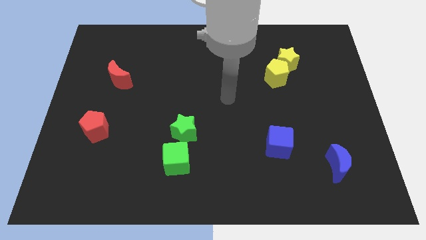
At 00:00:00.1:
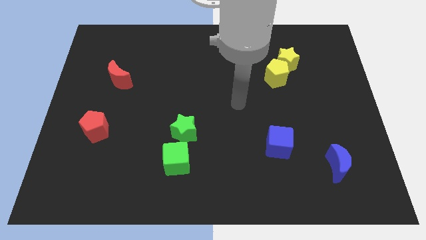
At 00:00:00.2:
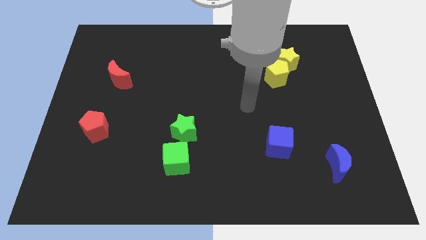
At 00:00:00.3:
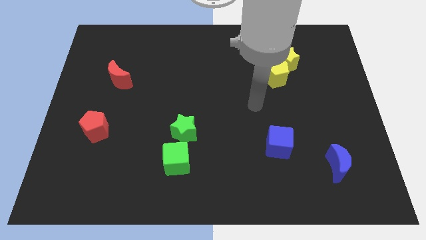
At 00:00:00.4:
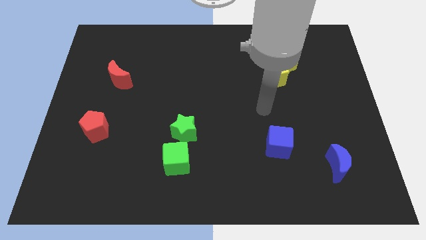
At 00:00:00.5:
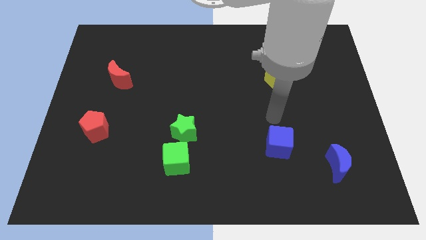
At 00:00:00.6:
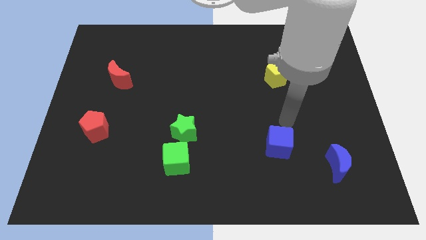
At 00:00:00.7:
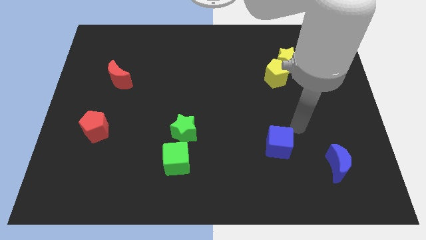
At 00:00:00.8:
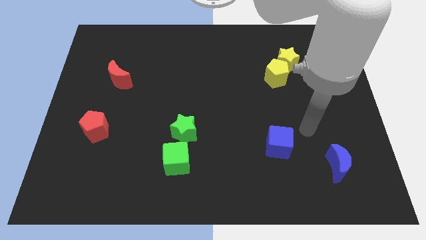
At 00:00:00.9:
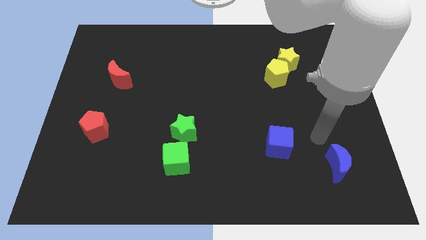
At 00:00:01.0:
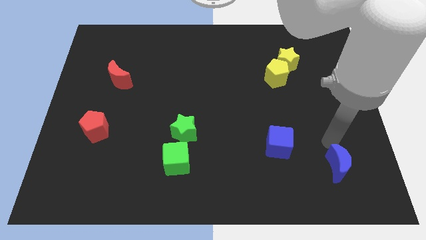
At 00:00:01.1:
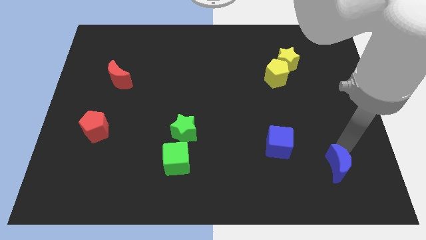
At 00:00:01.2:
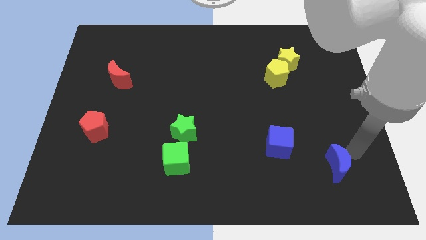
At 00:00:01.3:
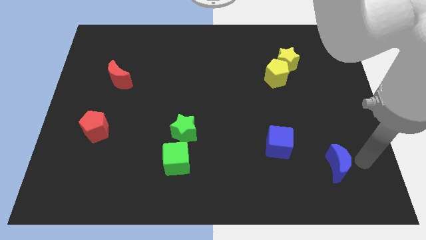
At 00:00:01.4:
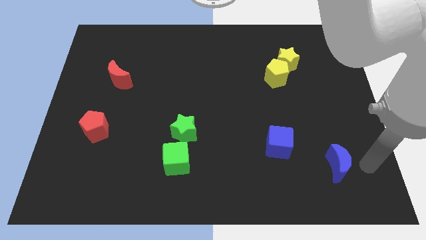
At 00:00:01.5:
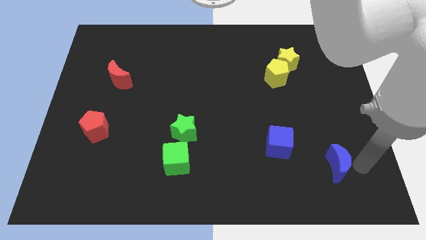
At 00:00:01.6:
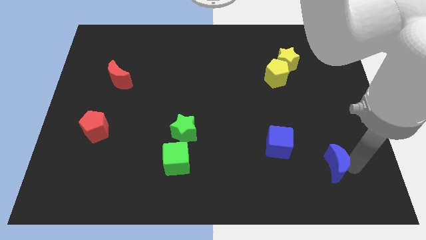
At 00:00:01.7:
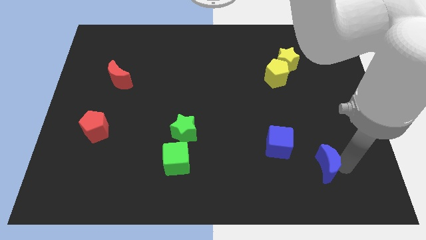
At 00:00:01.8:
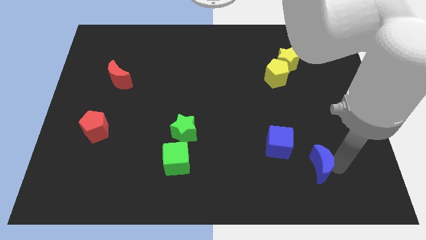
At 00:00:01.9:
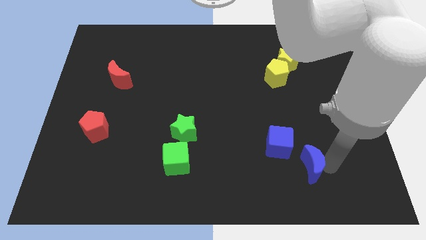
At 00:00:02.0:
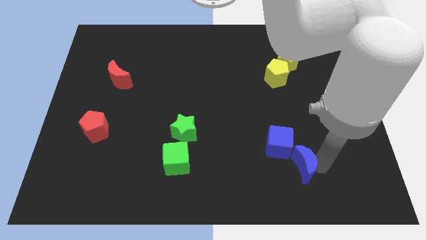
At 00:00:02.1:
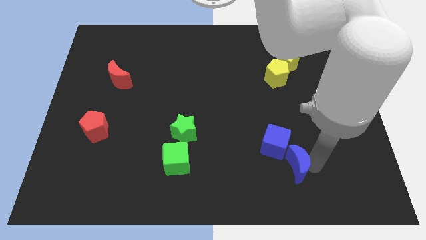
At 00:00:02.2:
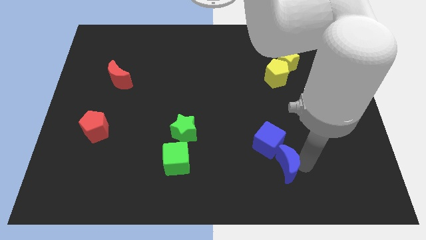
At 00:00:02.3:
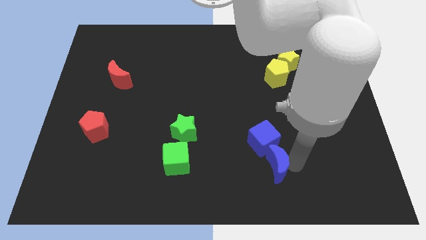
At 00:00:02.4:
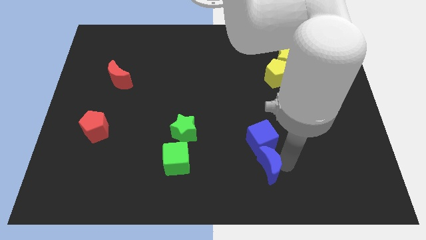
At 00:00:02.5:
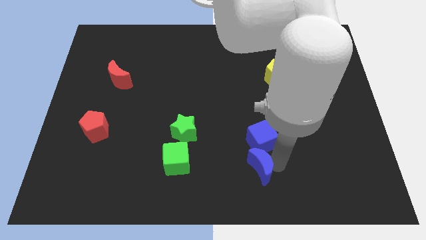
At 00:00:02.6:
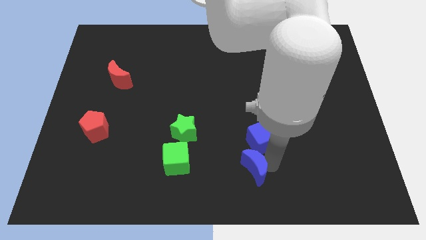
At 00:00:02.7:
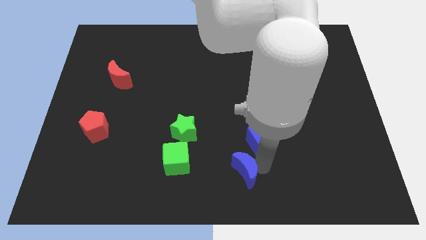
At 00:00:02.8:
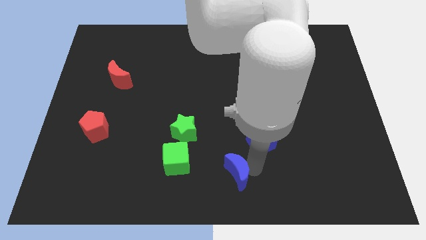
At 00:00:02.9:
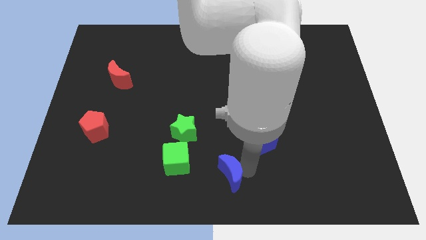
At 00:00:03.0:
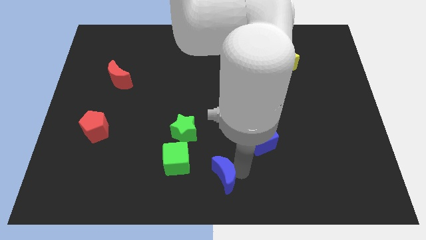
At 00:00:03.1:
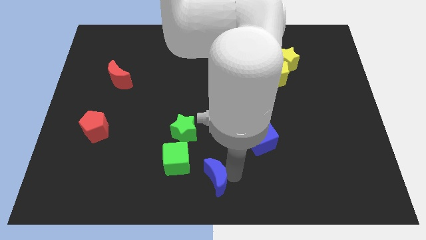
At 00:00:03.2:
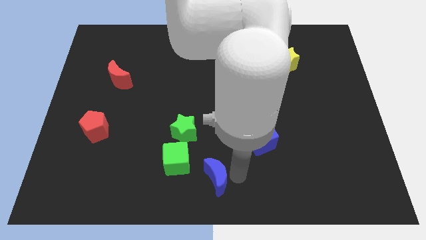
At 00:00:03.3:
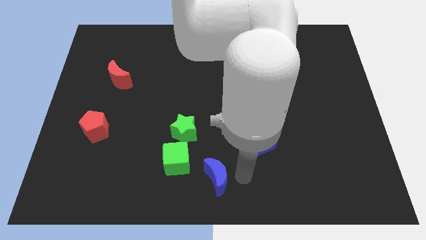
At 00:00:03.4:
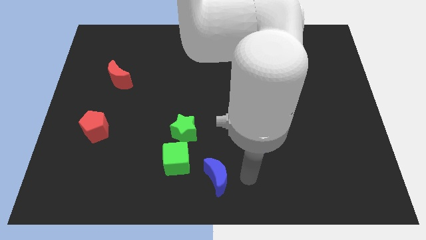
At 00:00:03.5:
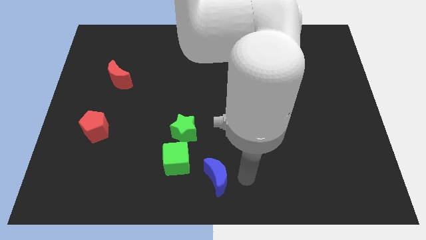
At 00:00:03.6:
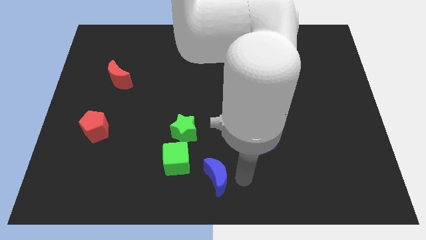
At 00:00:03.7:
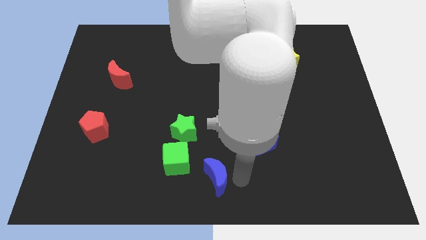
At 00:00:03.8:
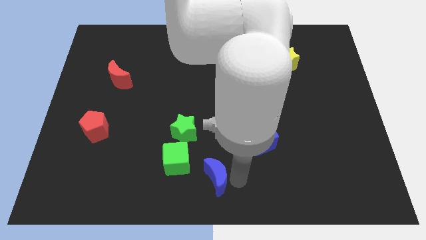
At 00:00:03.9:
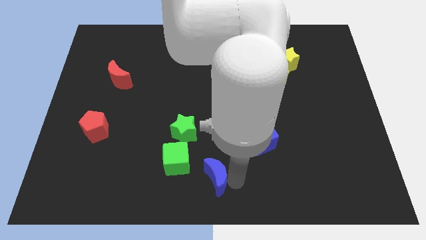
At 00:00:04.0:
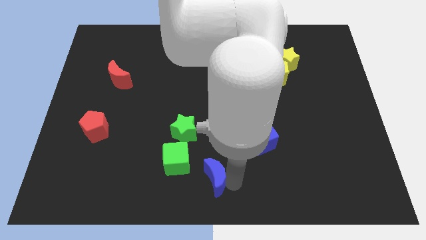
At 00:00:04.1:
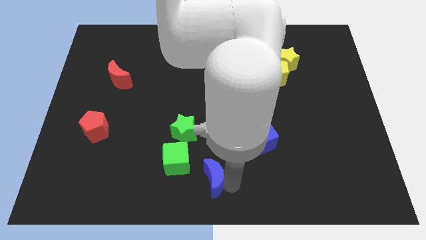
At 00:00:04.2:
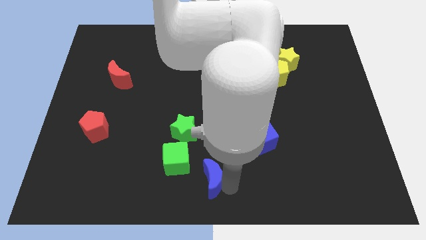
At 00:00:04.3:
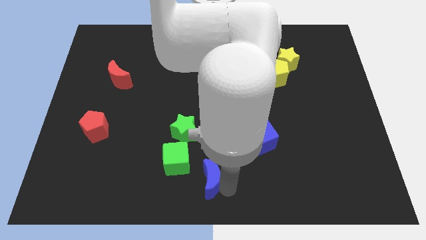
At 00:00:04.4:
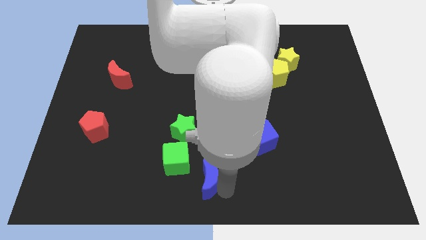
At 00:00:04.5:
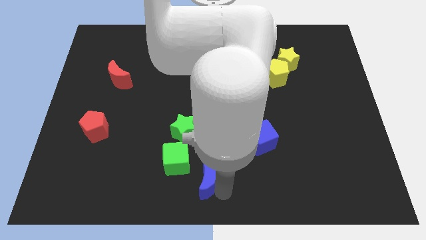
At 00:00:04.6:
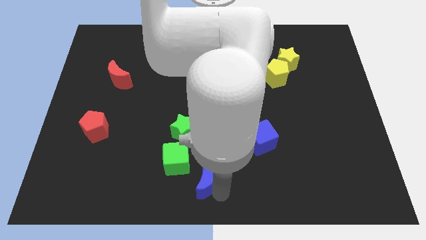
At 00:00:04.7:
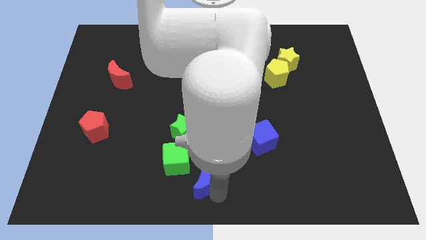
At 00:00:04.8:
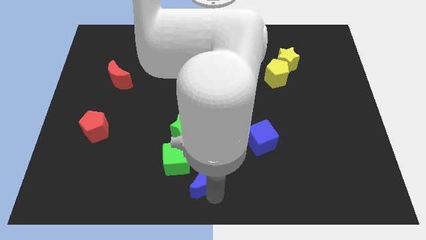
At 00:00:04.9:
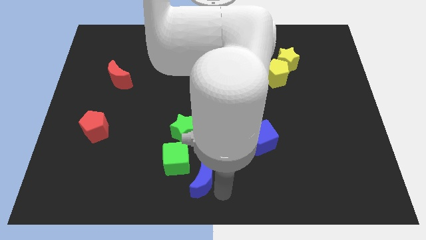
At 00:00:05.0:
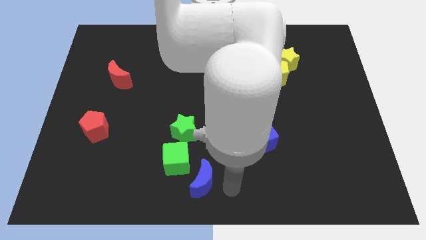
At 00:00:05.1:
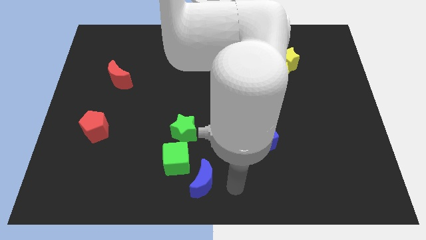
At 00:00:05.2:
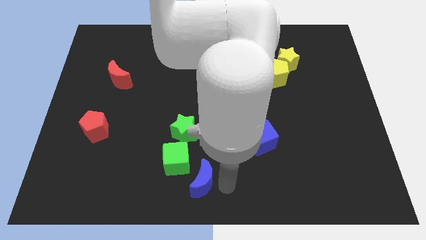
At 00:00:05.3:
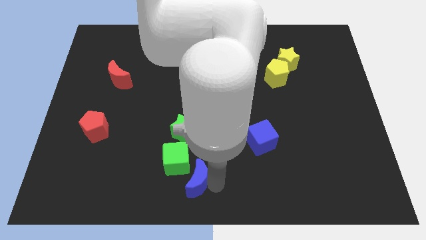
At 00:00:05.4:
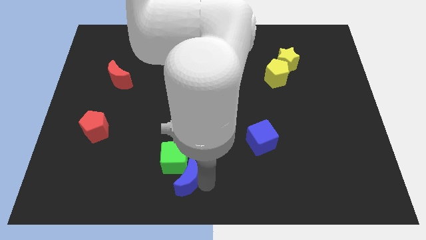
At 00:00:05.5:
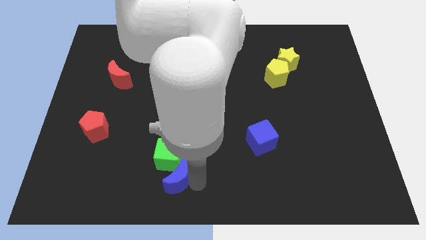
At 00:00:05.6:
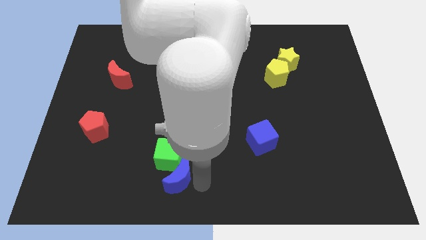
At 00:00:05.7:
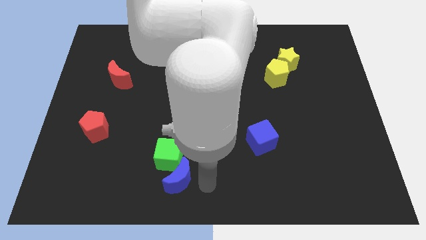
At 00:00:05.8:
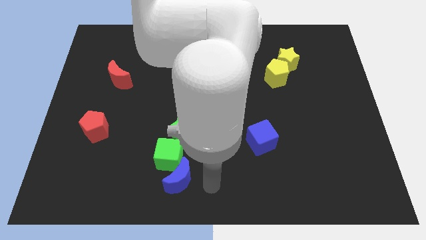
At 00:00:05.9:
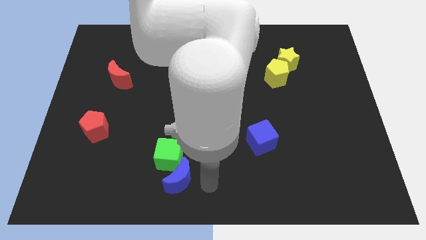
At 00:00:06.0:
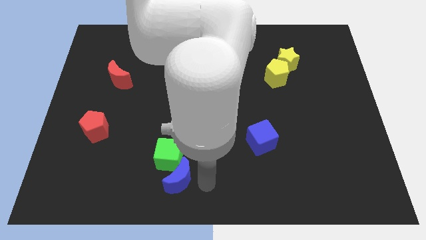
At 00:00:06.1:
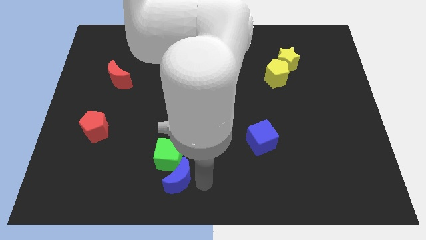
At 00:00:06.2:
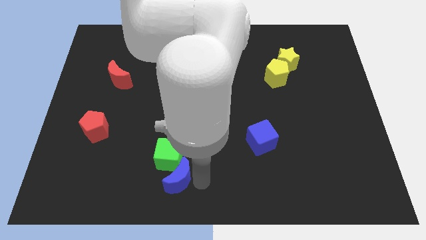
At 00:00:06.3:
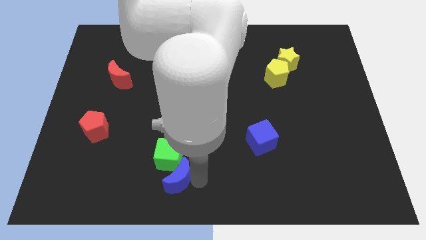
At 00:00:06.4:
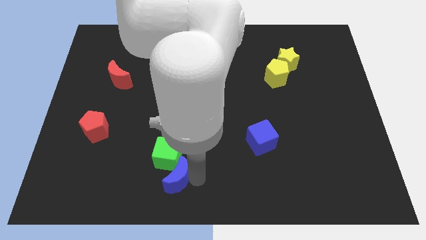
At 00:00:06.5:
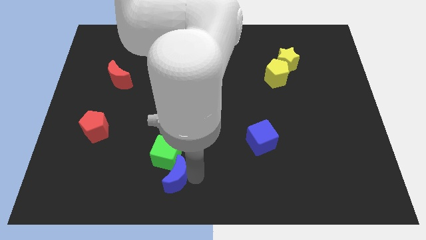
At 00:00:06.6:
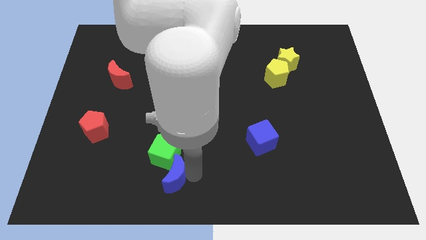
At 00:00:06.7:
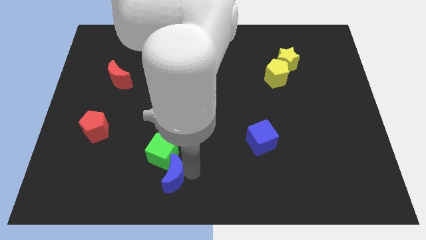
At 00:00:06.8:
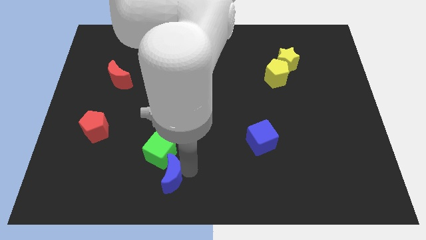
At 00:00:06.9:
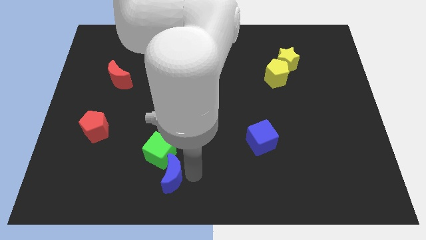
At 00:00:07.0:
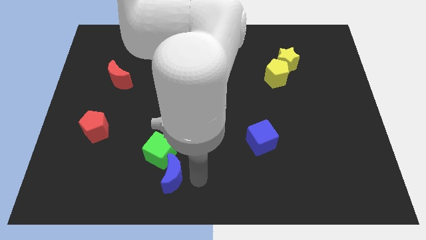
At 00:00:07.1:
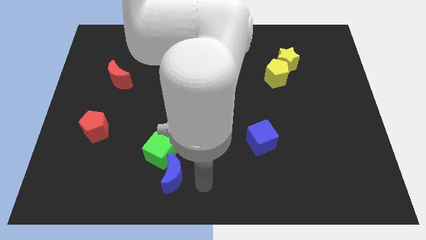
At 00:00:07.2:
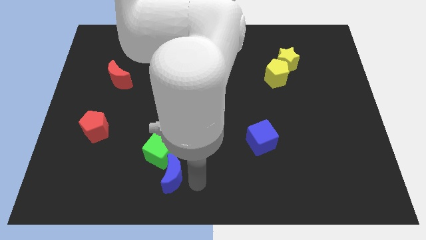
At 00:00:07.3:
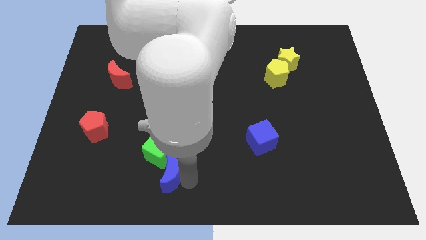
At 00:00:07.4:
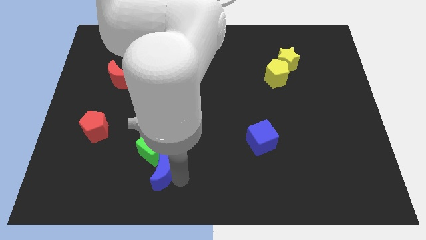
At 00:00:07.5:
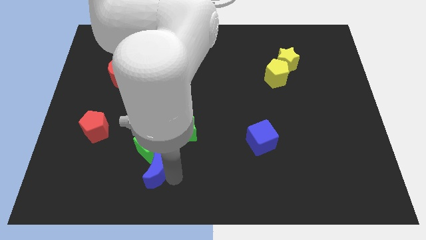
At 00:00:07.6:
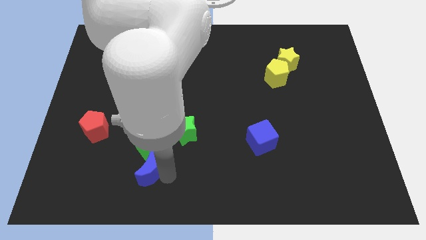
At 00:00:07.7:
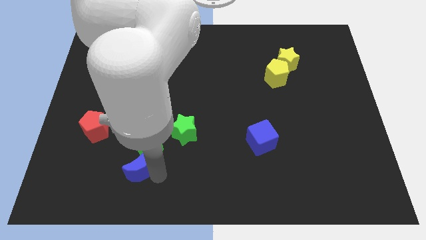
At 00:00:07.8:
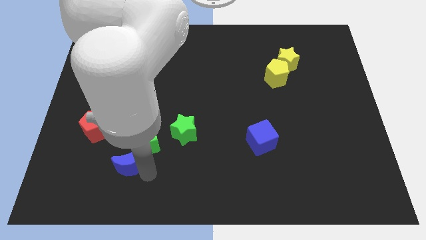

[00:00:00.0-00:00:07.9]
push the blue moon to the bottom right of the red pentagon
